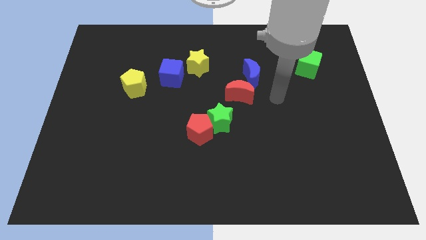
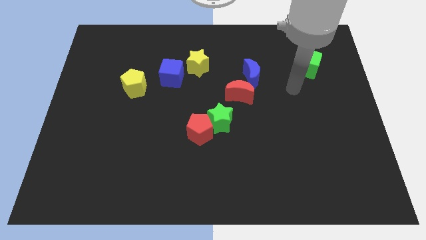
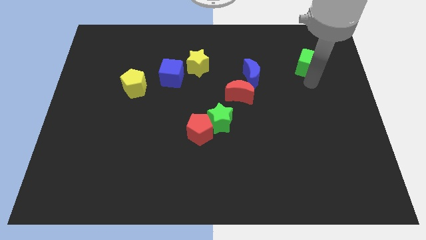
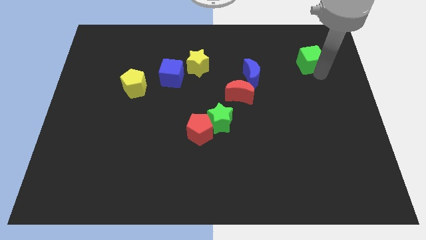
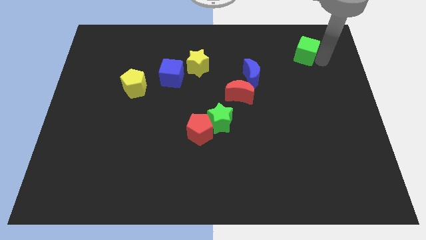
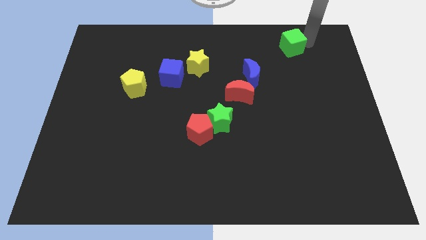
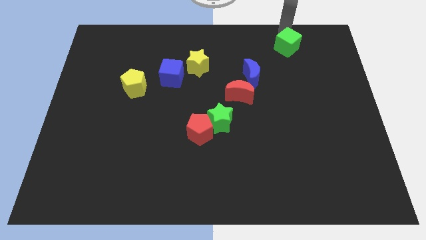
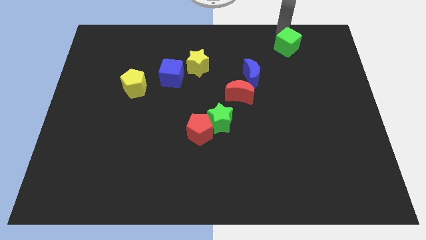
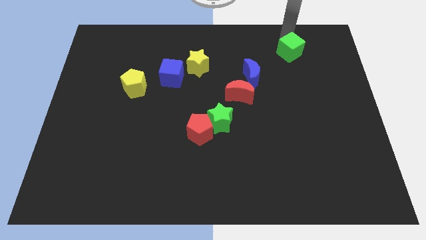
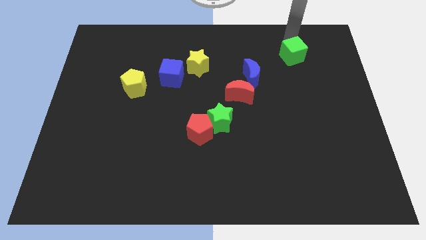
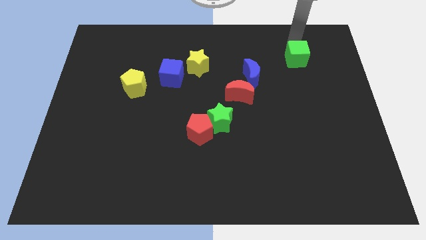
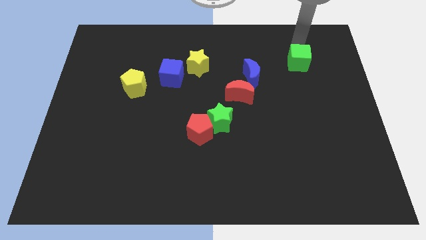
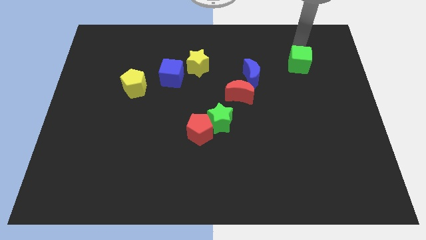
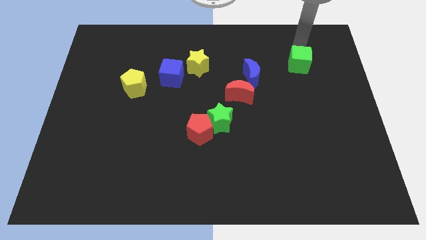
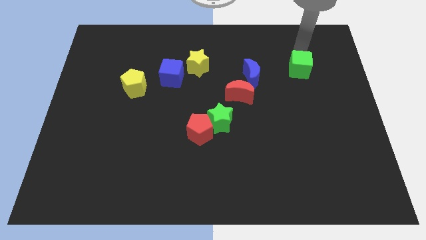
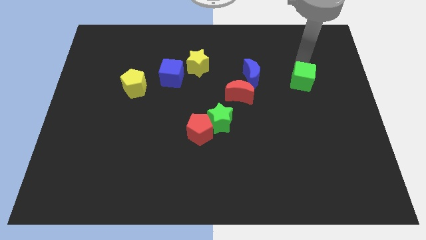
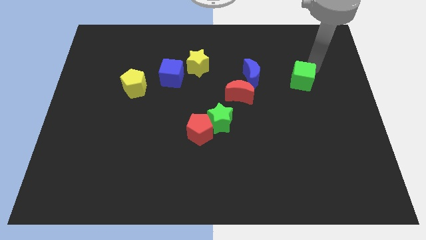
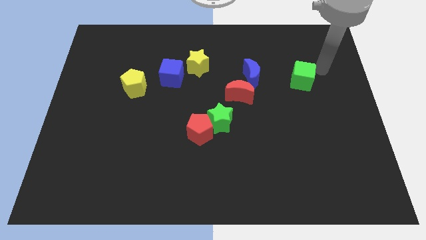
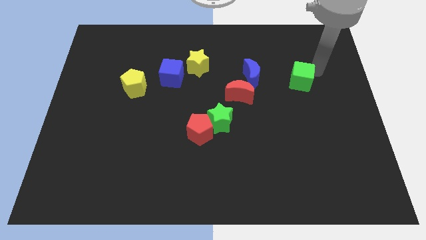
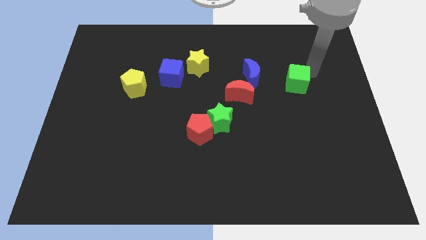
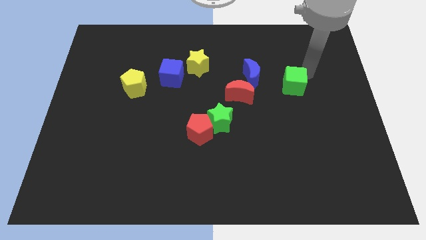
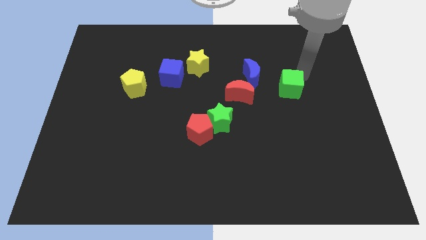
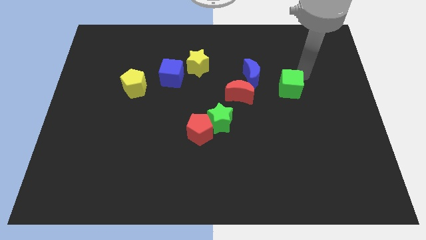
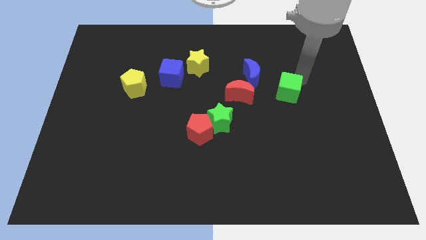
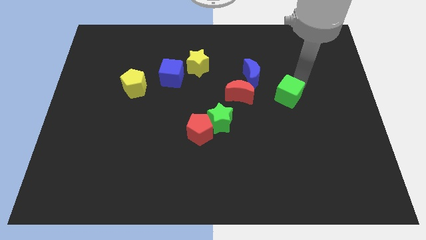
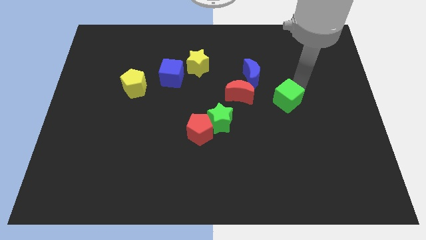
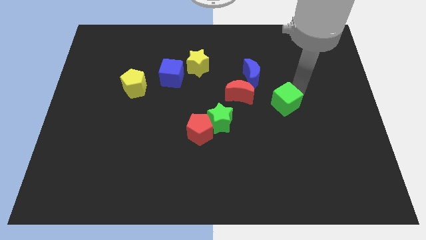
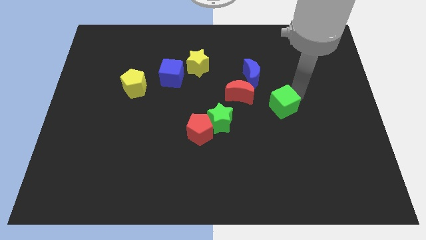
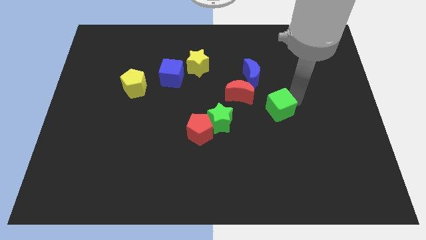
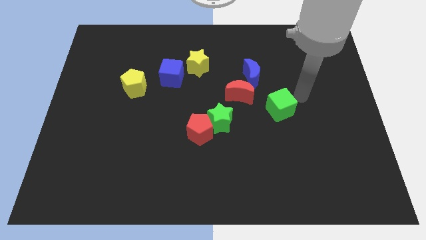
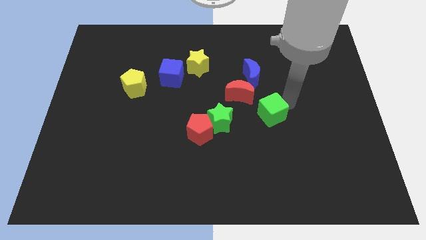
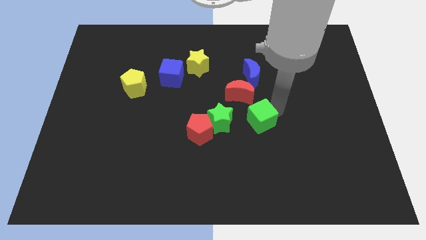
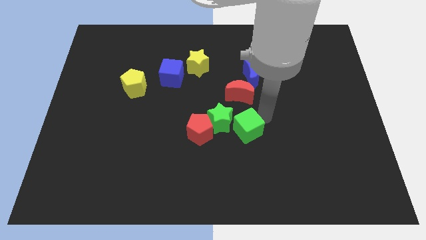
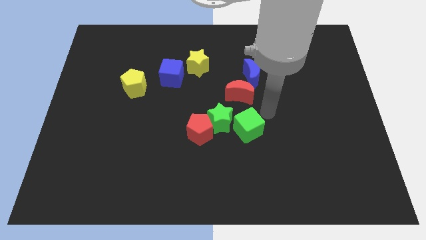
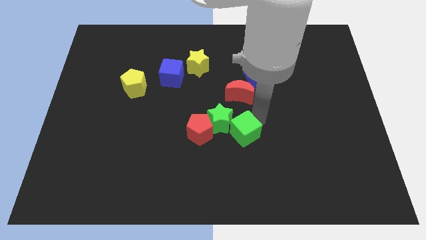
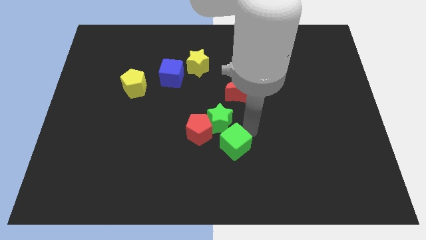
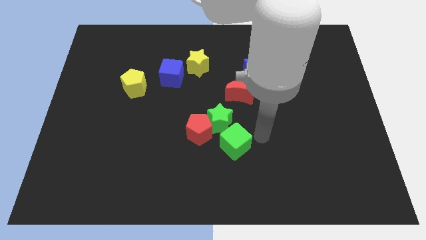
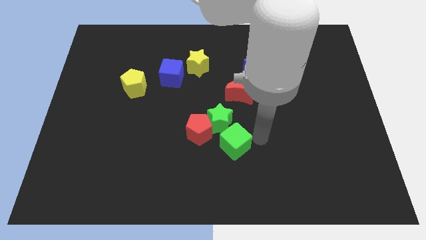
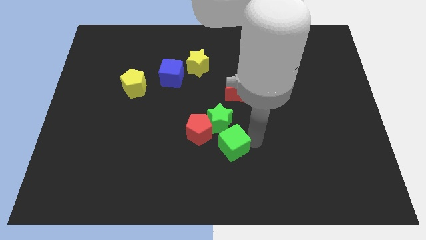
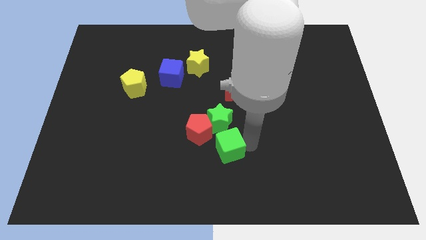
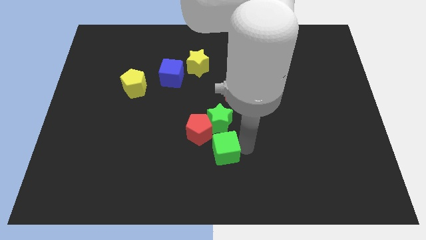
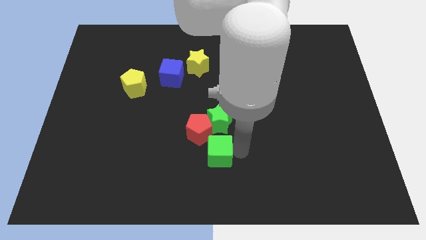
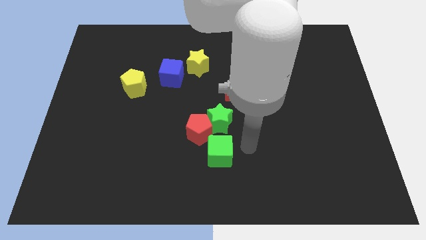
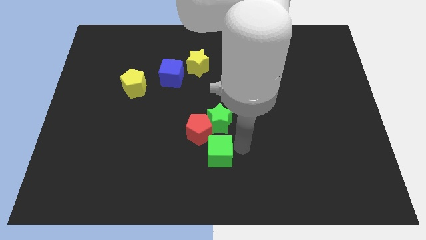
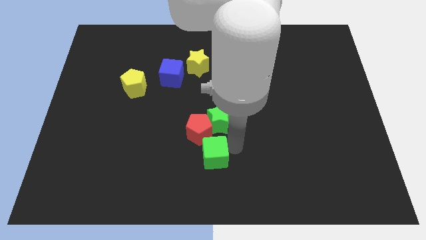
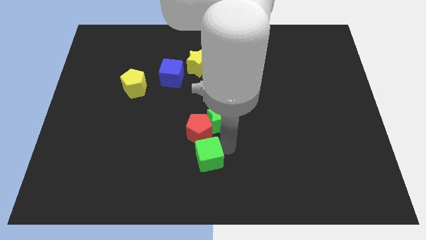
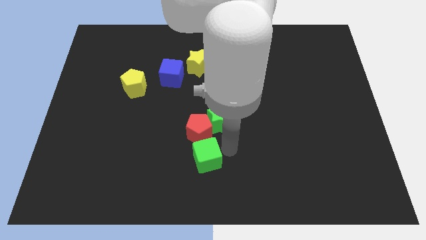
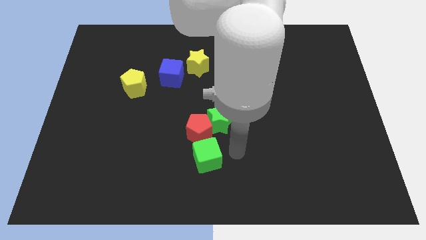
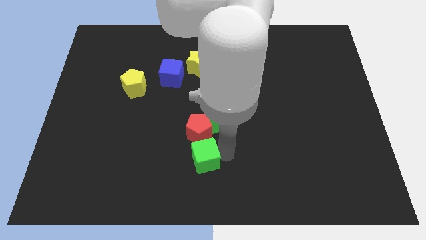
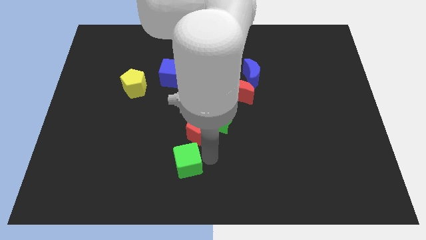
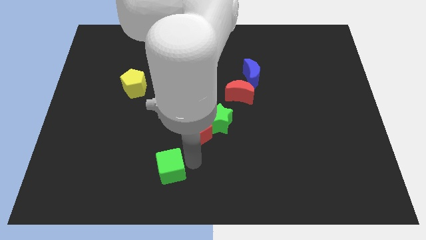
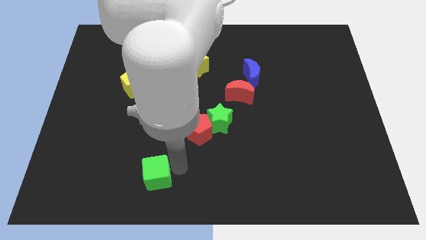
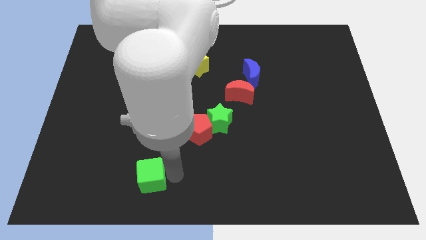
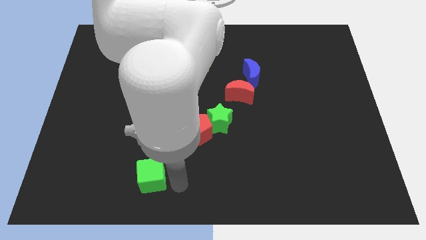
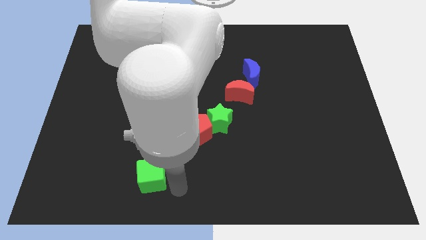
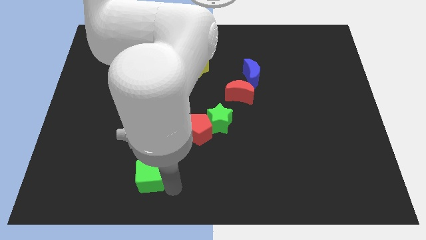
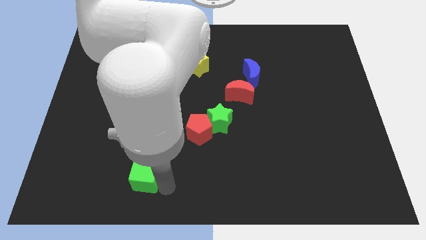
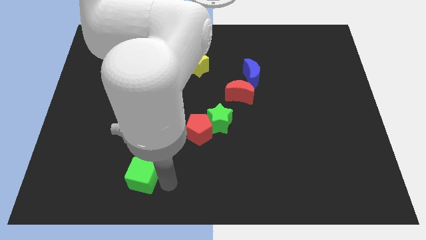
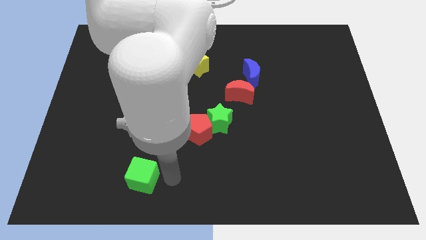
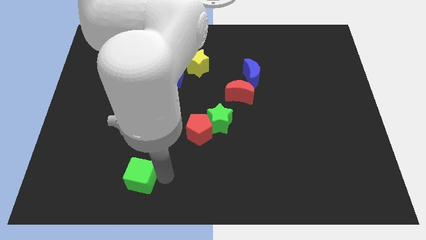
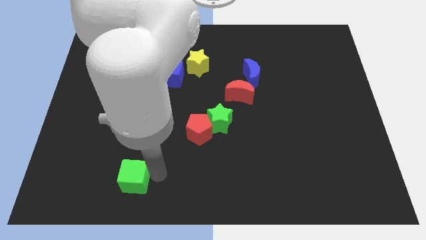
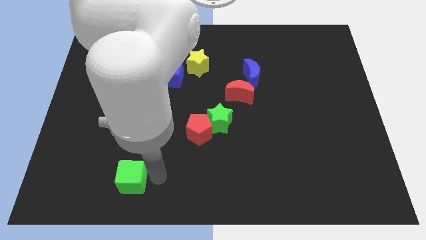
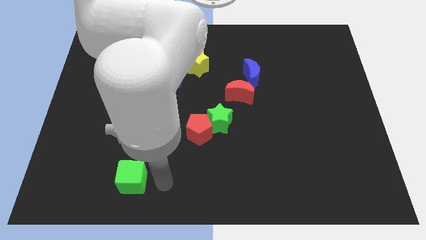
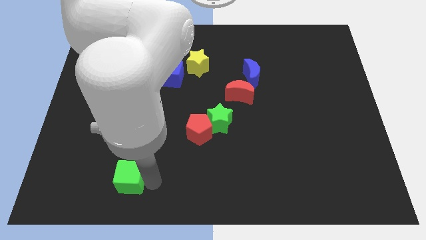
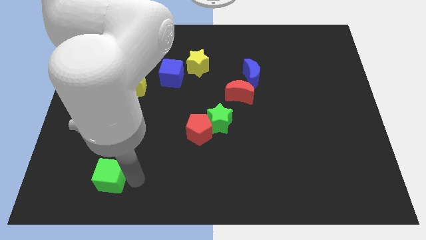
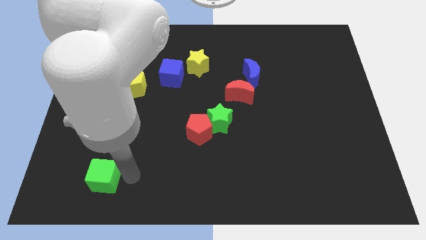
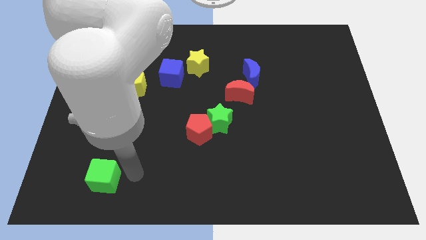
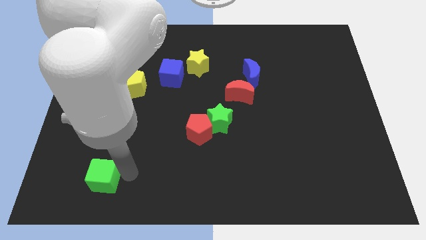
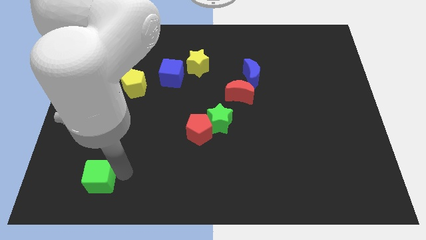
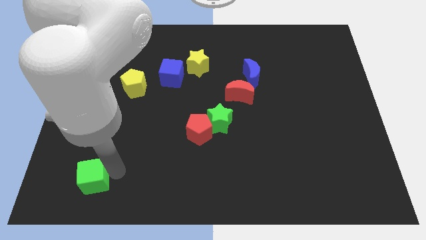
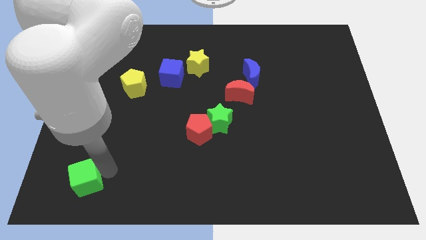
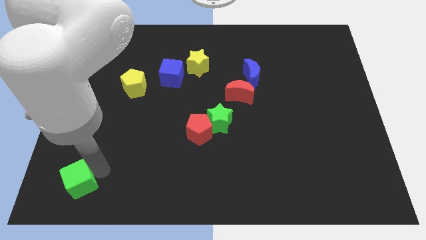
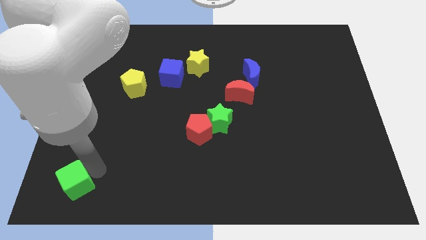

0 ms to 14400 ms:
put the green cube to the lower left corner
